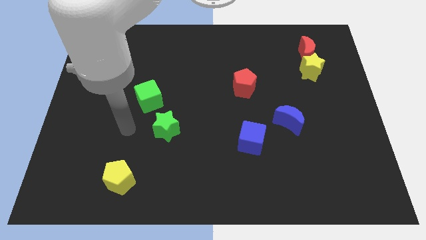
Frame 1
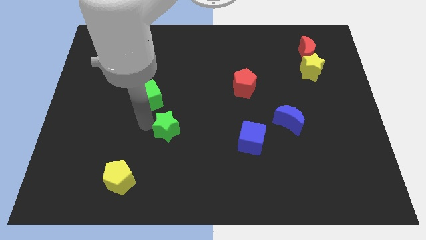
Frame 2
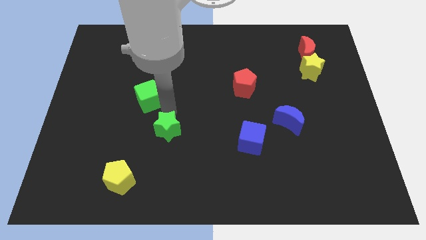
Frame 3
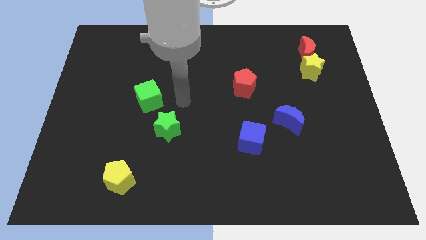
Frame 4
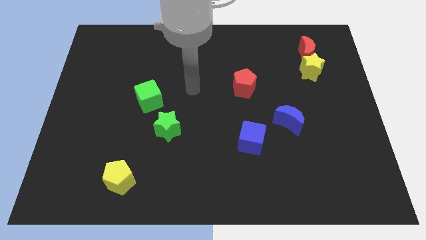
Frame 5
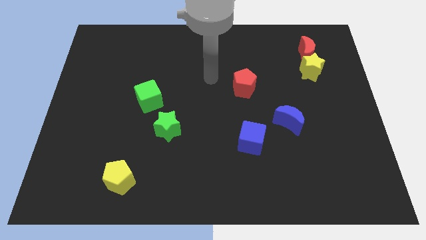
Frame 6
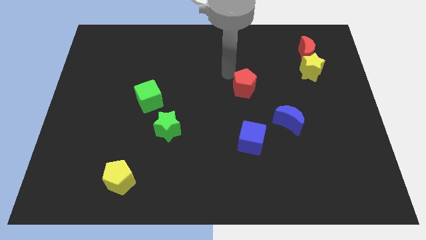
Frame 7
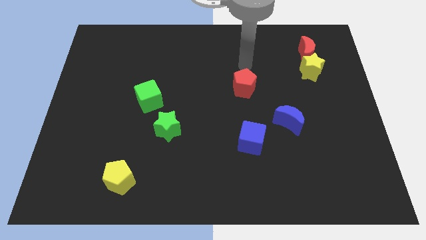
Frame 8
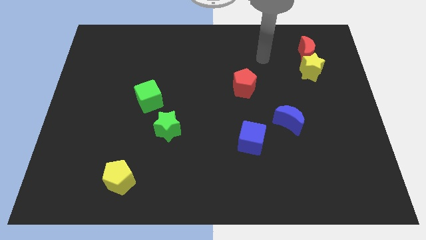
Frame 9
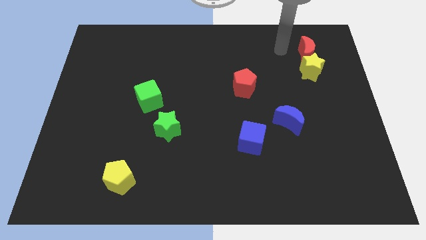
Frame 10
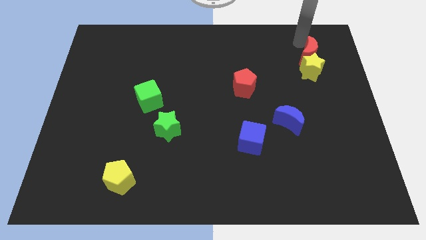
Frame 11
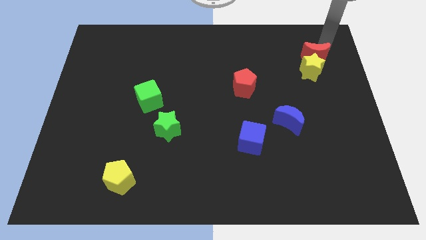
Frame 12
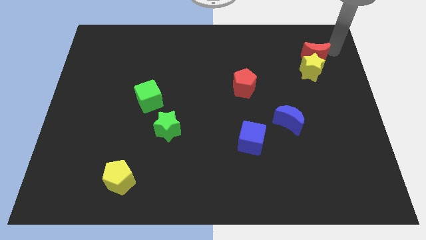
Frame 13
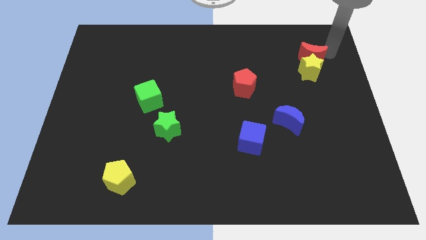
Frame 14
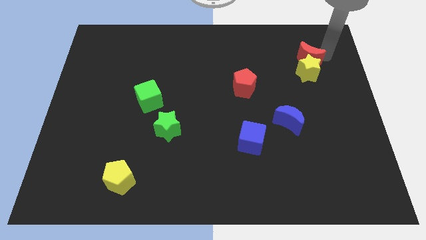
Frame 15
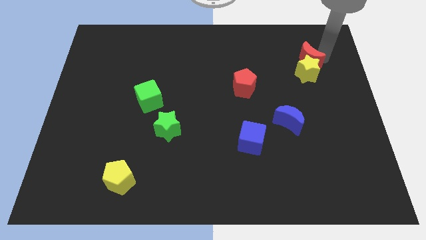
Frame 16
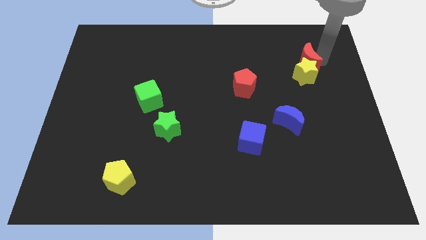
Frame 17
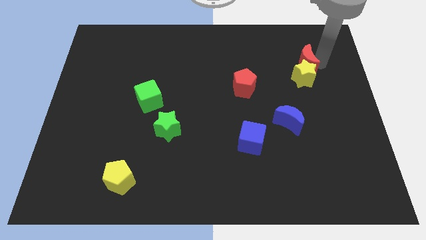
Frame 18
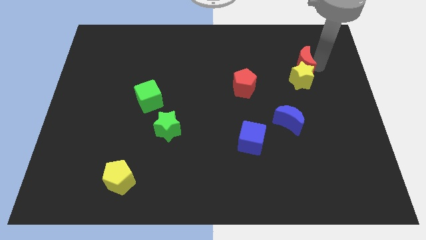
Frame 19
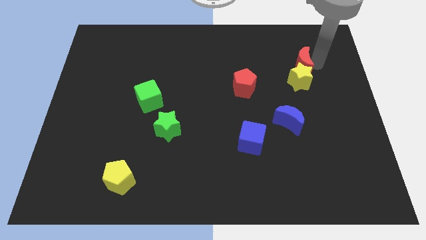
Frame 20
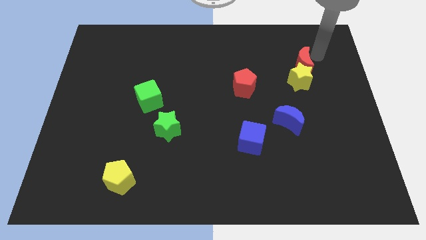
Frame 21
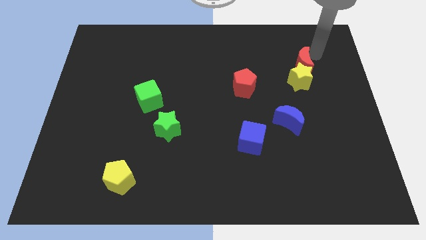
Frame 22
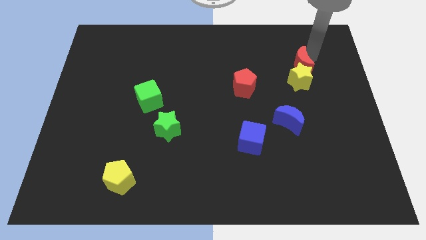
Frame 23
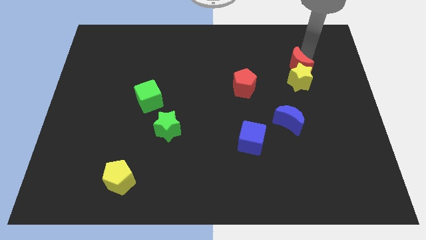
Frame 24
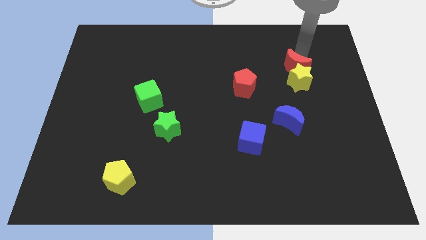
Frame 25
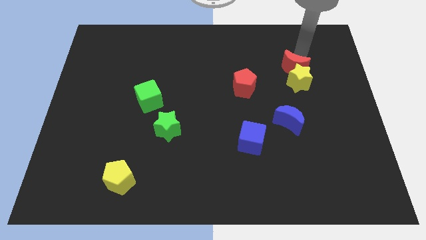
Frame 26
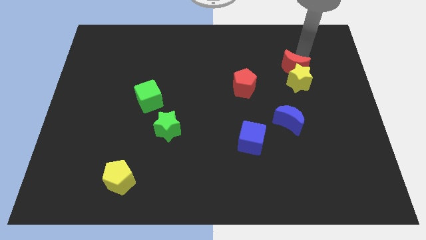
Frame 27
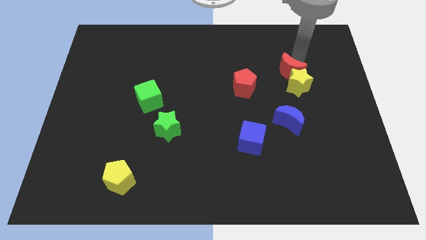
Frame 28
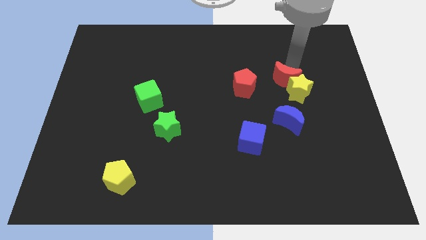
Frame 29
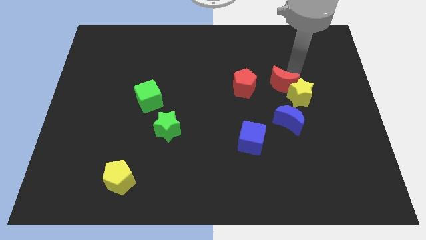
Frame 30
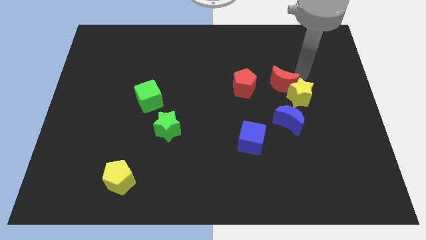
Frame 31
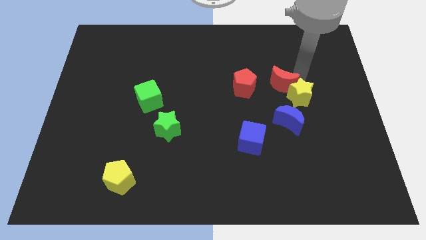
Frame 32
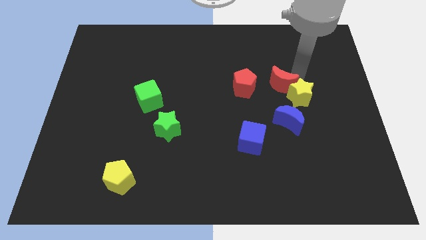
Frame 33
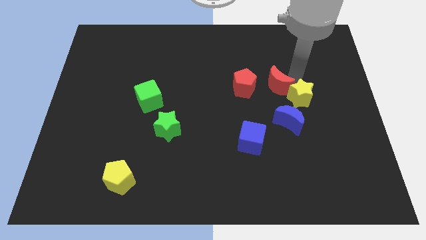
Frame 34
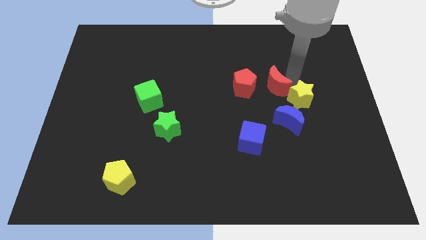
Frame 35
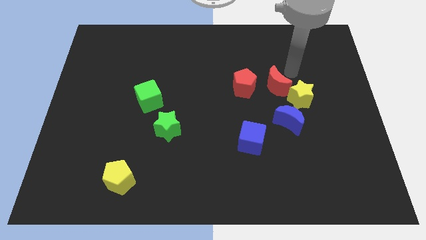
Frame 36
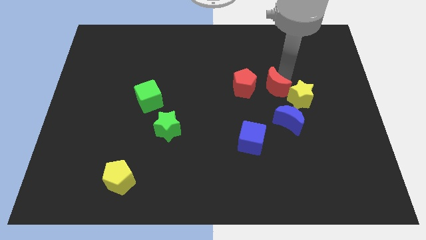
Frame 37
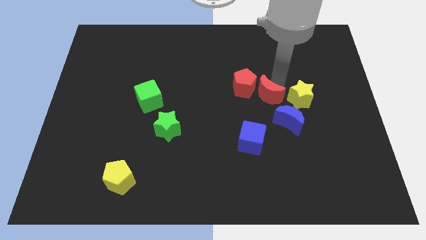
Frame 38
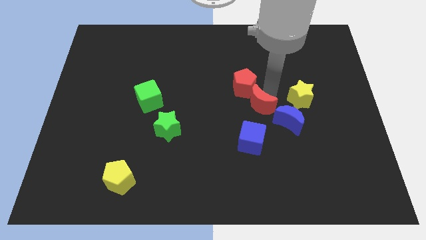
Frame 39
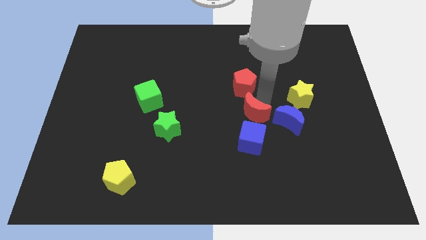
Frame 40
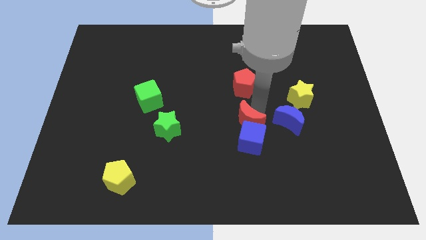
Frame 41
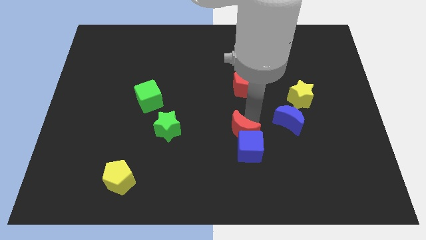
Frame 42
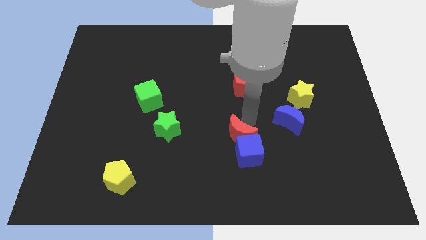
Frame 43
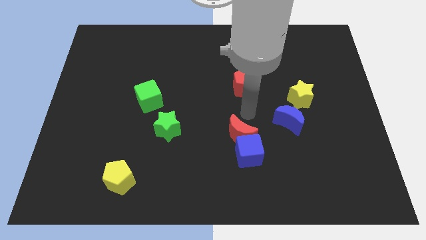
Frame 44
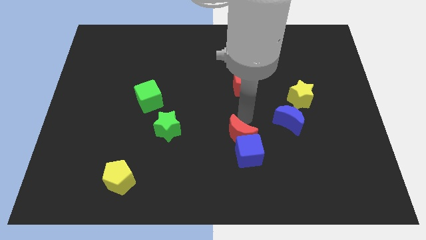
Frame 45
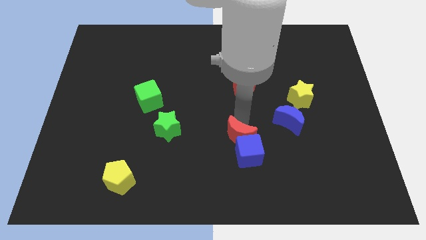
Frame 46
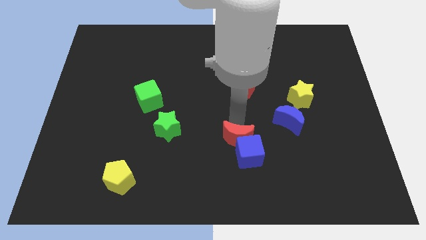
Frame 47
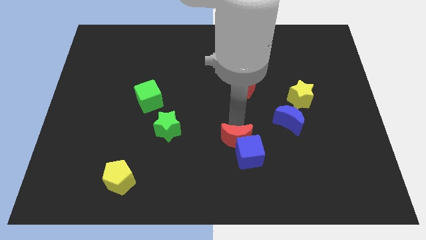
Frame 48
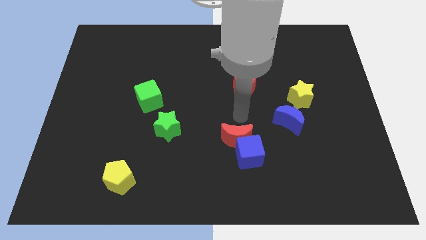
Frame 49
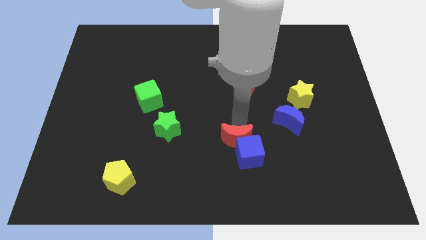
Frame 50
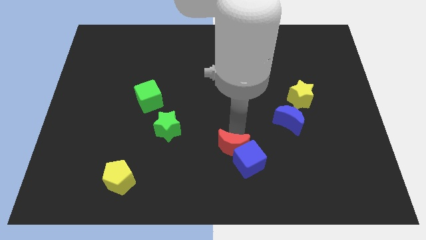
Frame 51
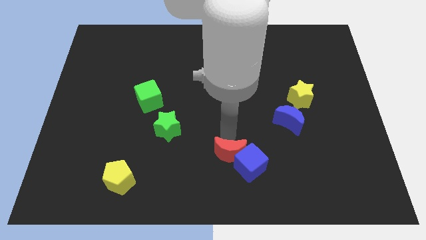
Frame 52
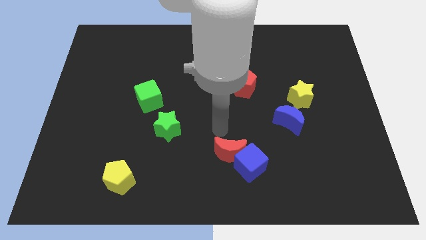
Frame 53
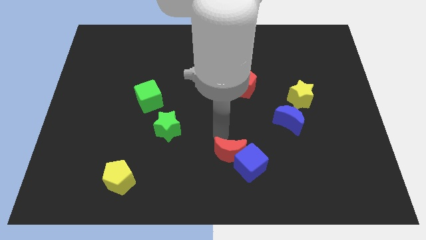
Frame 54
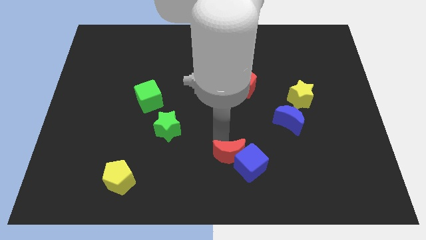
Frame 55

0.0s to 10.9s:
put the red moon to the bottom
